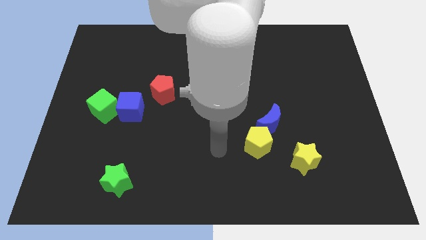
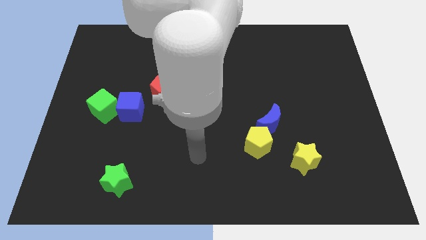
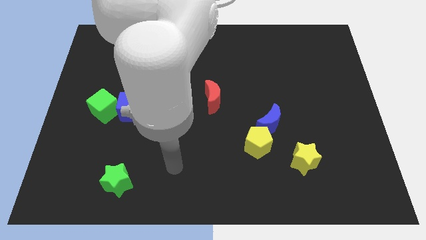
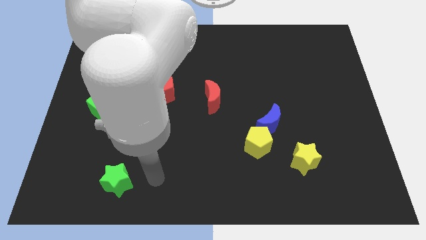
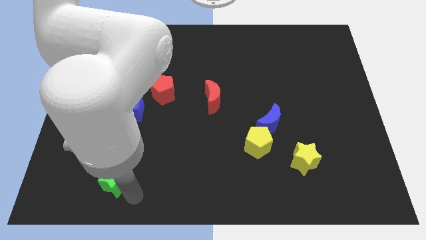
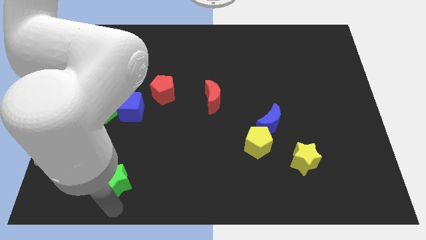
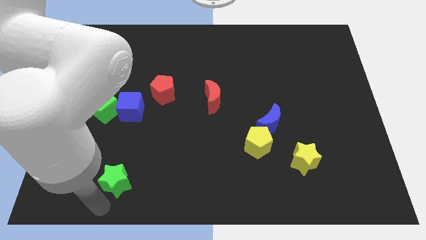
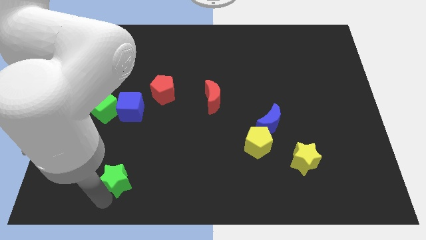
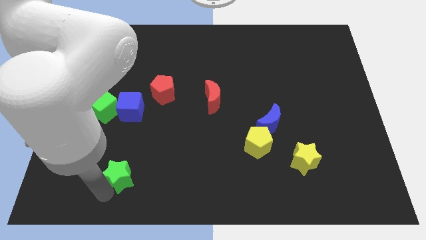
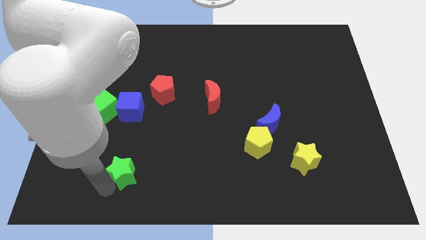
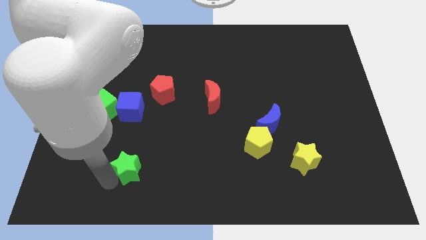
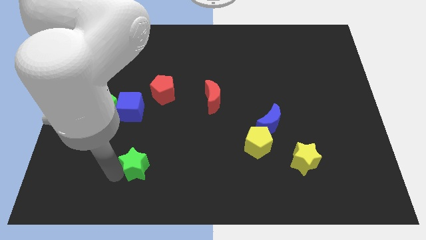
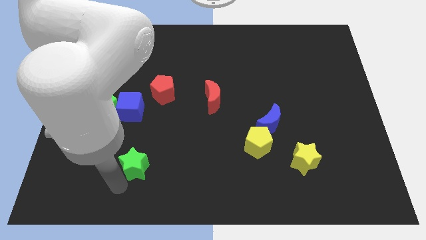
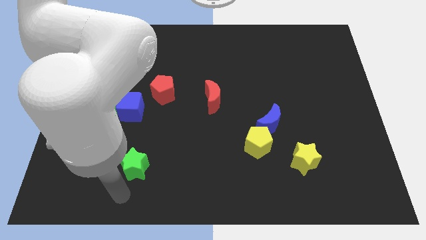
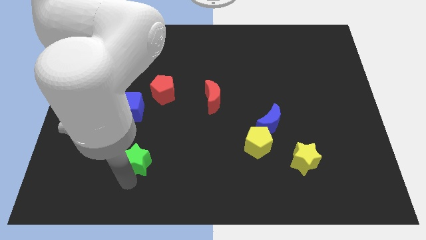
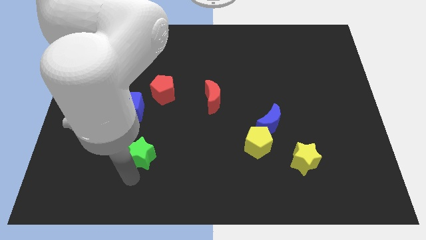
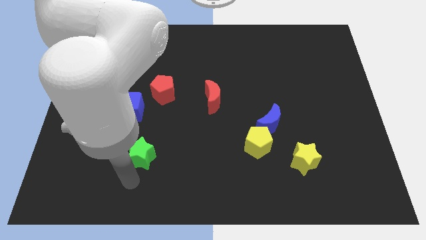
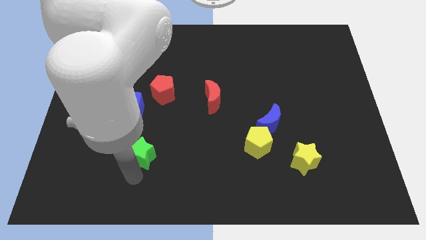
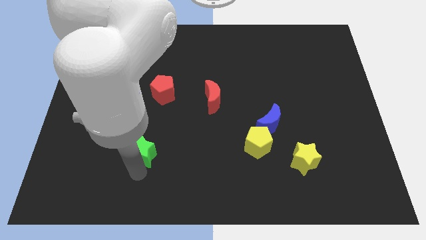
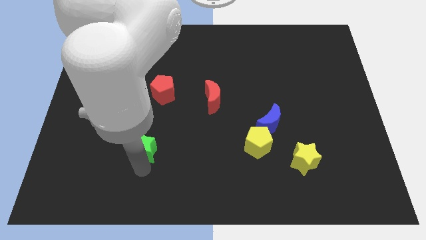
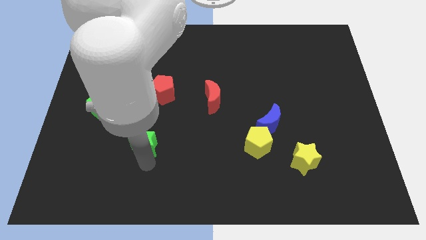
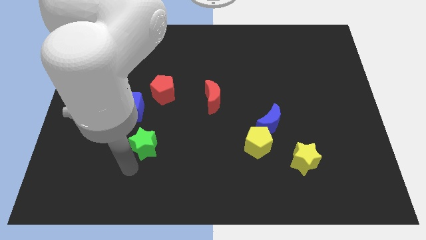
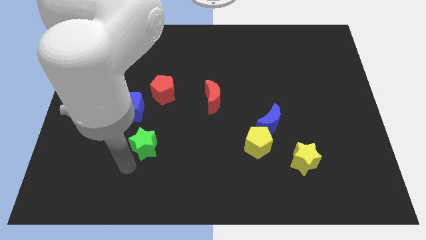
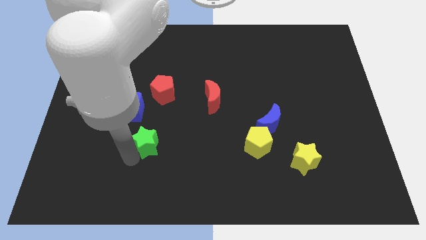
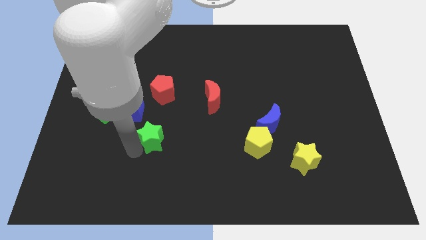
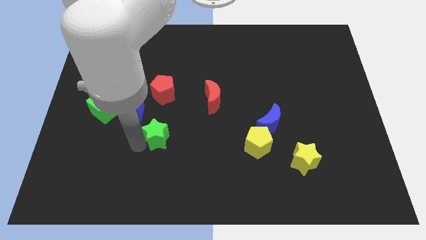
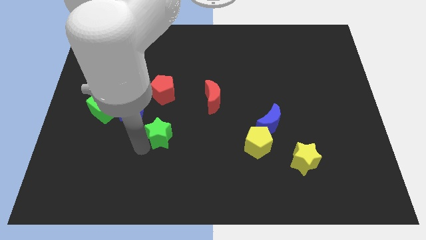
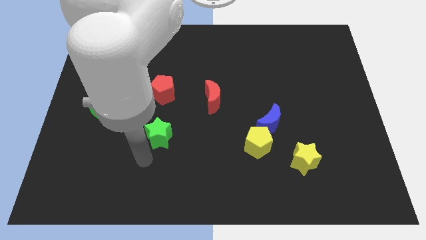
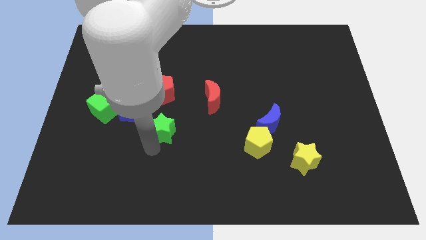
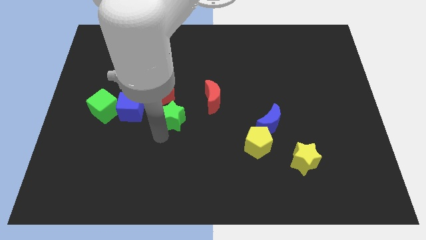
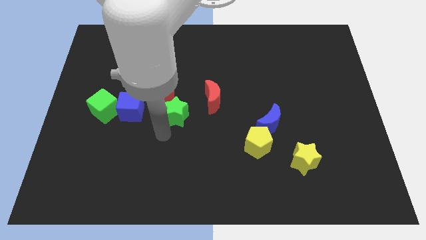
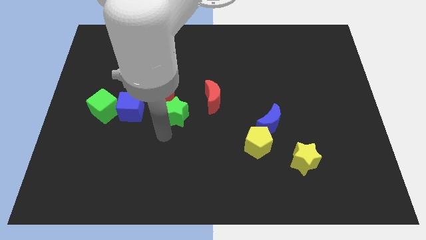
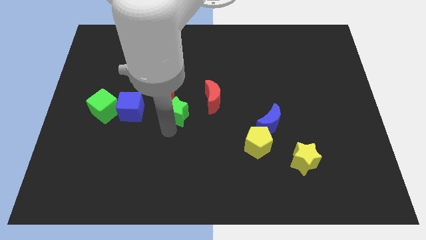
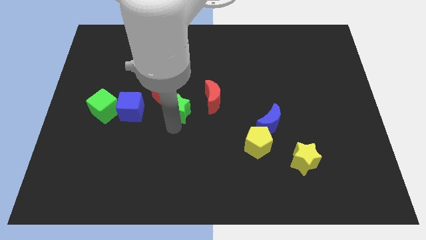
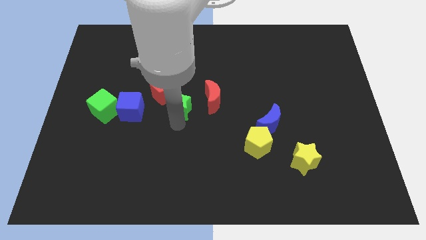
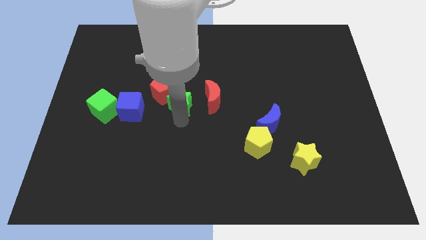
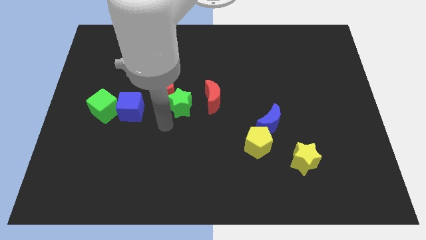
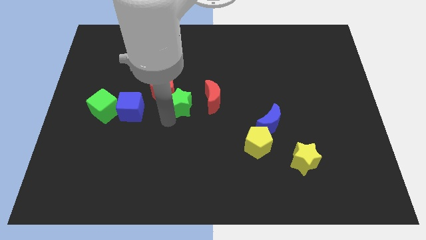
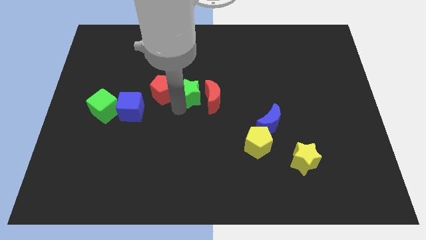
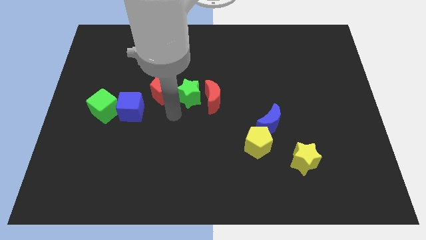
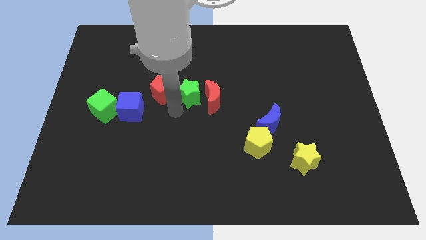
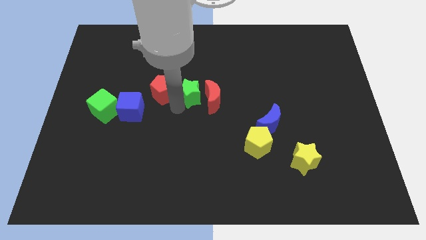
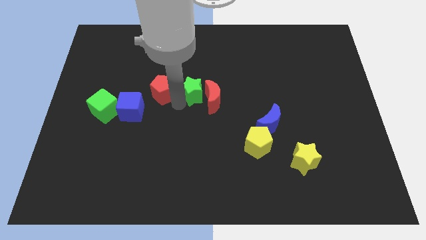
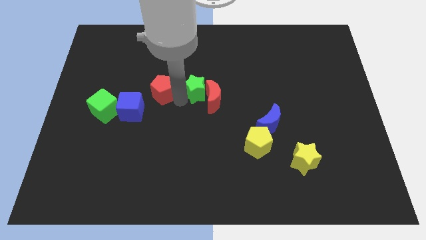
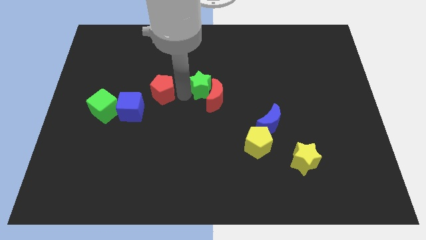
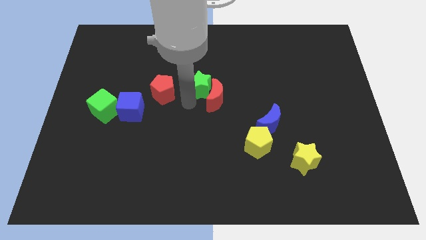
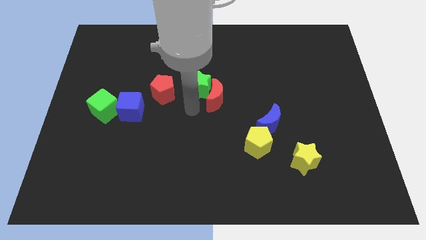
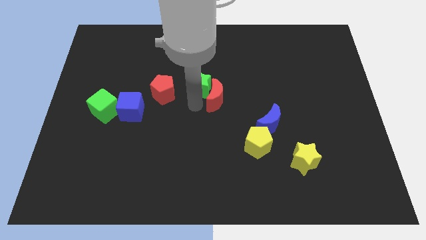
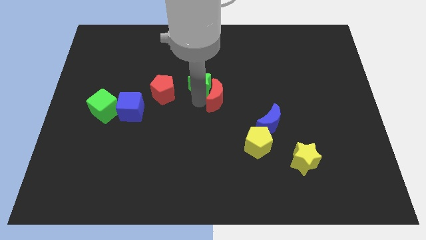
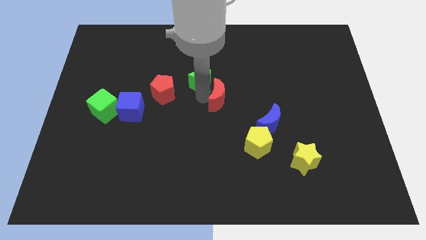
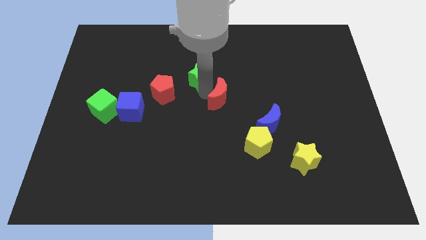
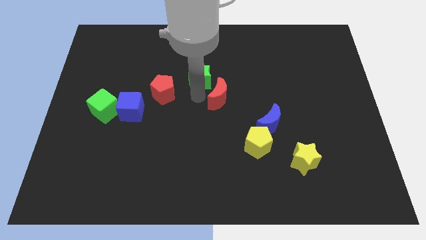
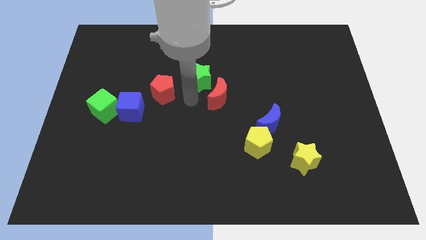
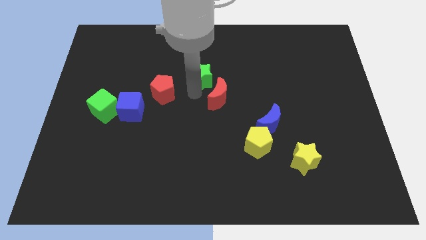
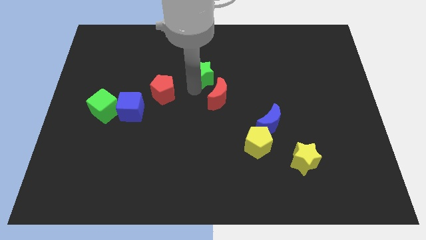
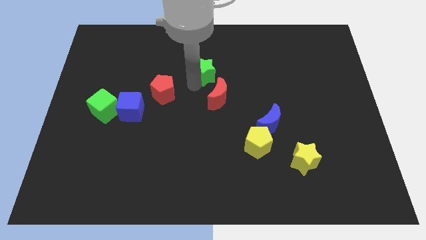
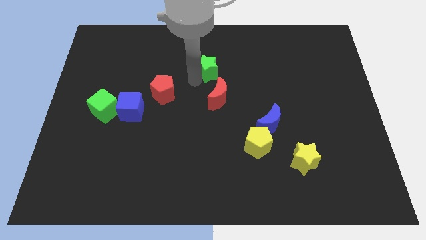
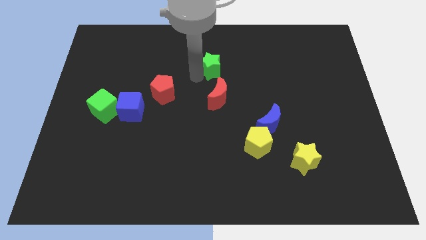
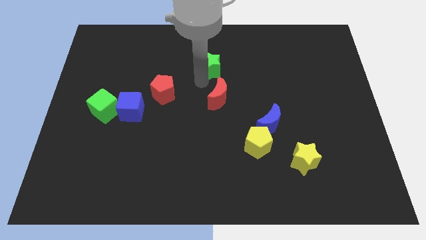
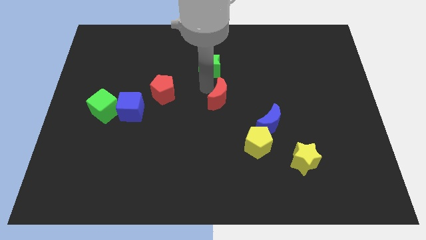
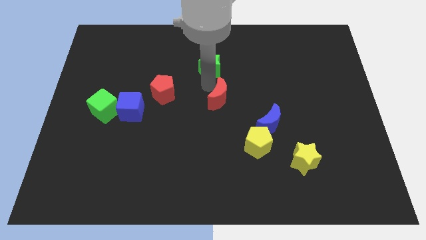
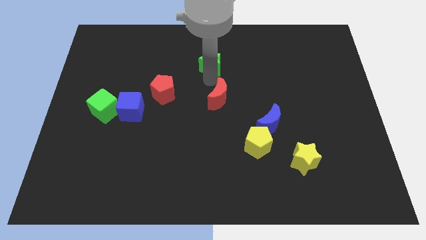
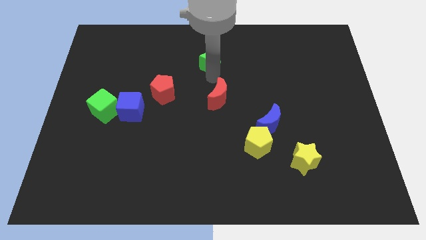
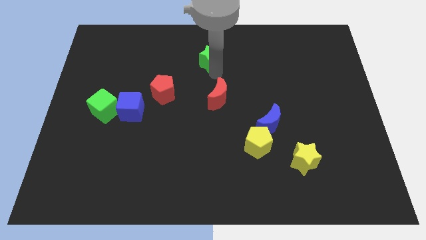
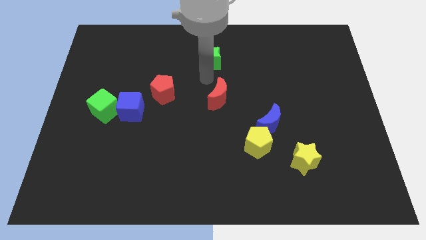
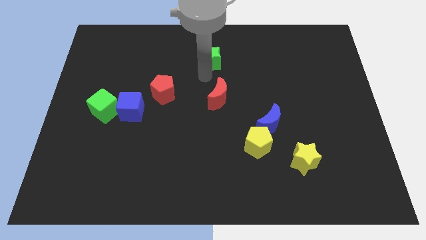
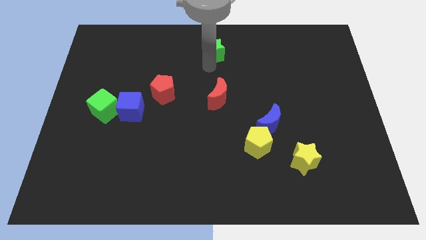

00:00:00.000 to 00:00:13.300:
slide the green star to the top side
